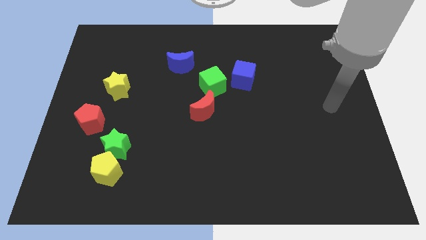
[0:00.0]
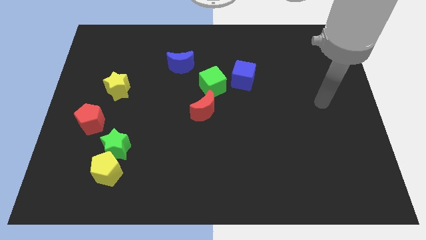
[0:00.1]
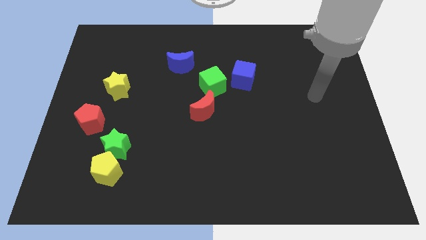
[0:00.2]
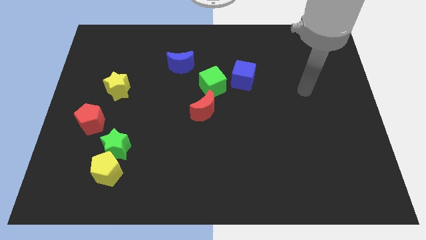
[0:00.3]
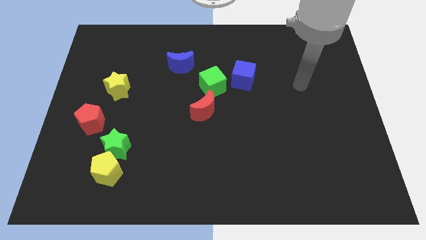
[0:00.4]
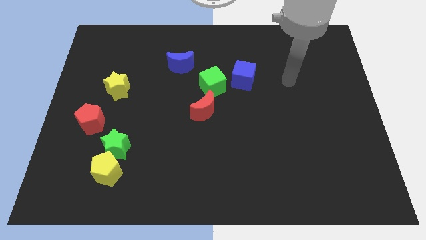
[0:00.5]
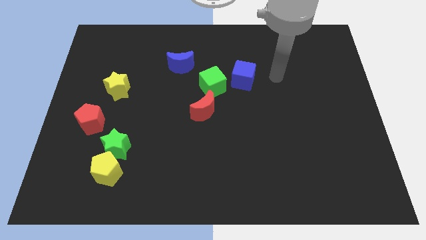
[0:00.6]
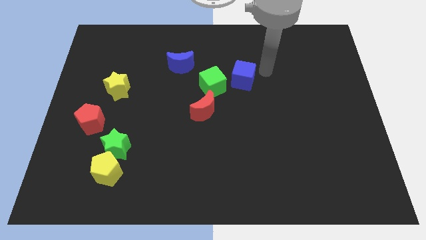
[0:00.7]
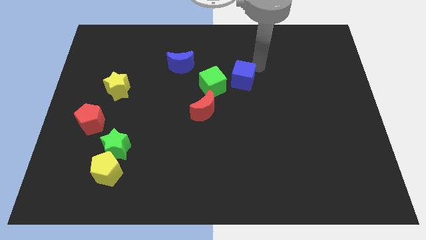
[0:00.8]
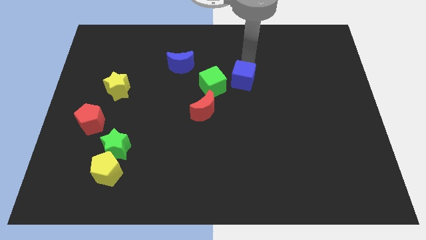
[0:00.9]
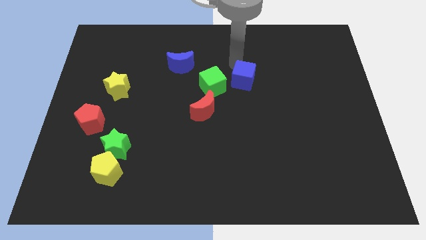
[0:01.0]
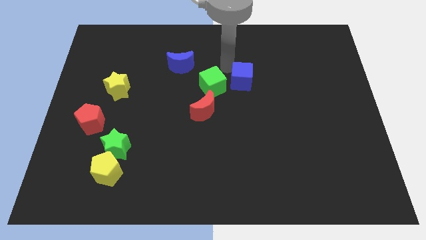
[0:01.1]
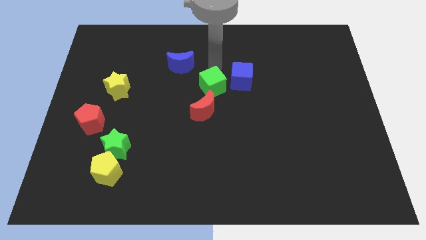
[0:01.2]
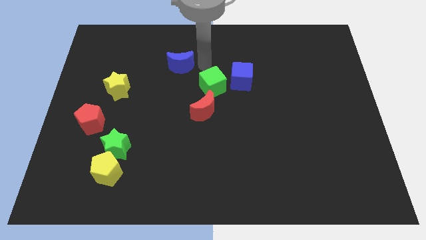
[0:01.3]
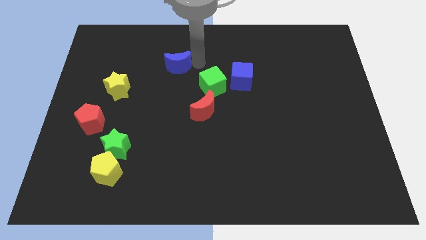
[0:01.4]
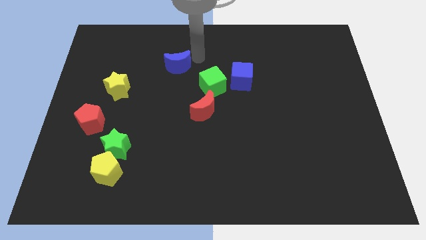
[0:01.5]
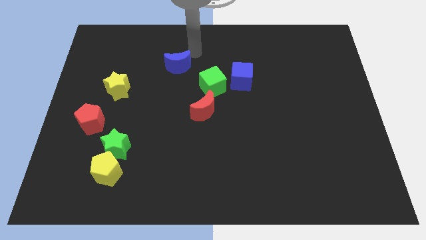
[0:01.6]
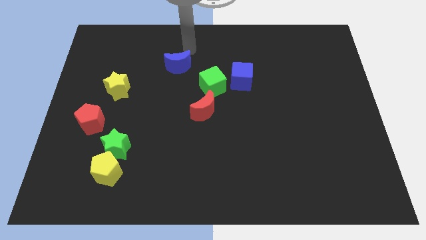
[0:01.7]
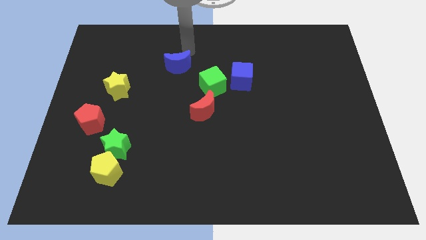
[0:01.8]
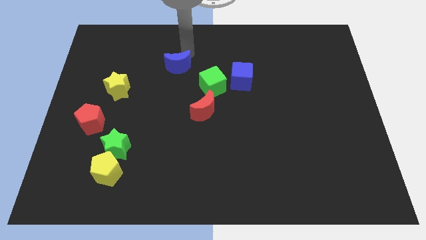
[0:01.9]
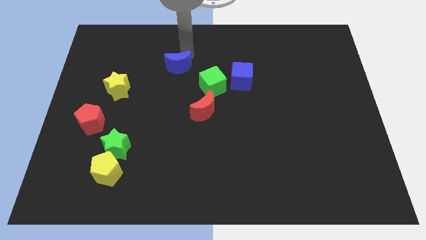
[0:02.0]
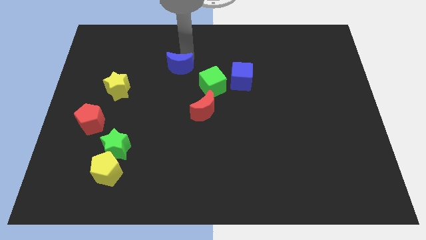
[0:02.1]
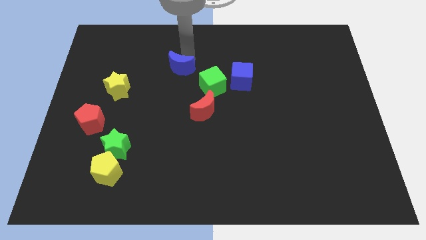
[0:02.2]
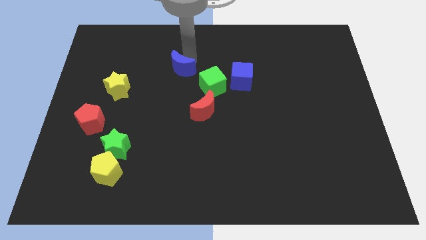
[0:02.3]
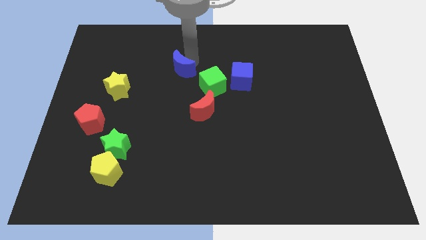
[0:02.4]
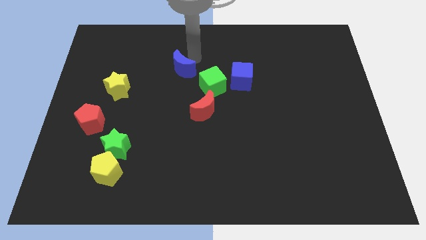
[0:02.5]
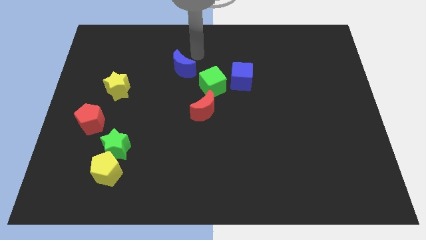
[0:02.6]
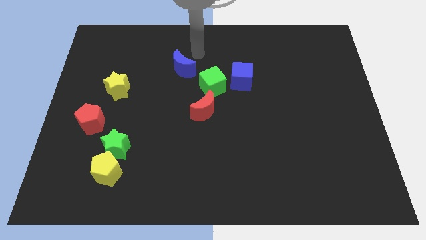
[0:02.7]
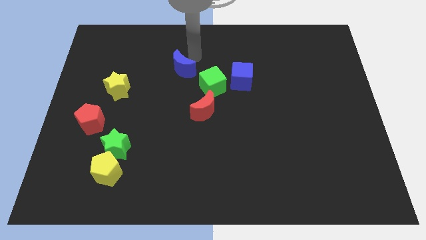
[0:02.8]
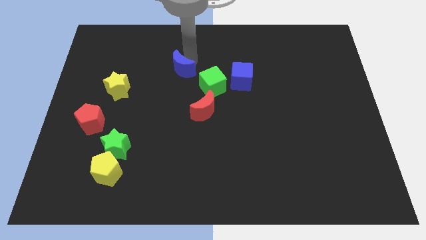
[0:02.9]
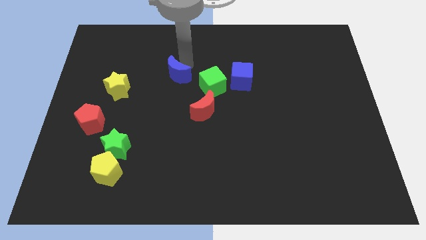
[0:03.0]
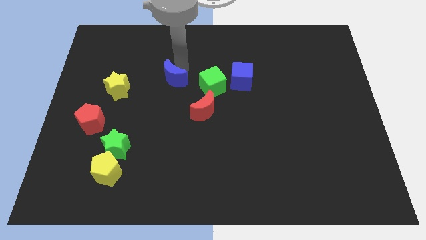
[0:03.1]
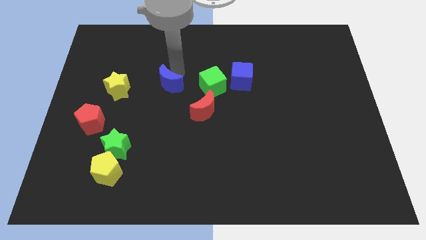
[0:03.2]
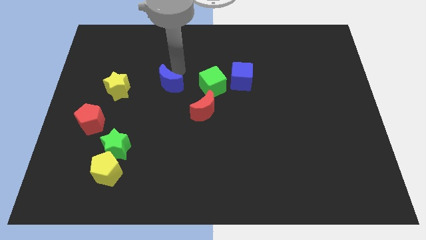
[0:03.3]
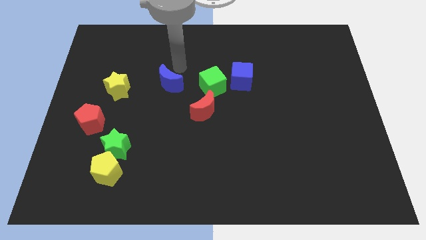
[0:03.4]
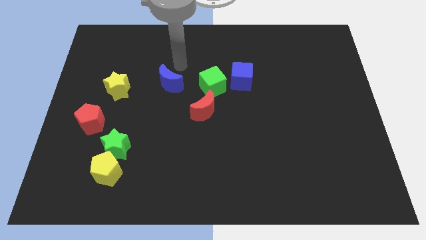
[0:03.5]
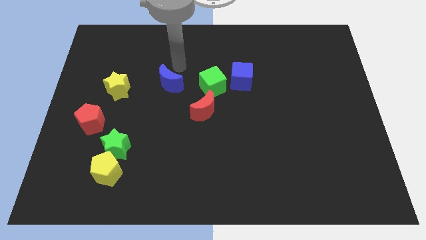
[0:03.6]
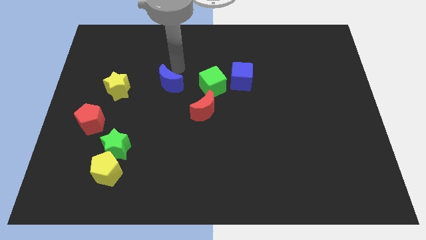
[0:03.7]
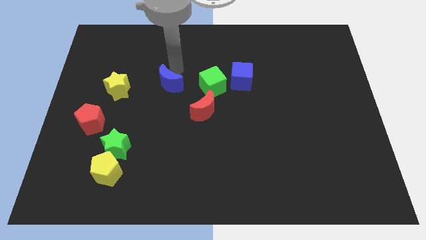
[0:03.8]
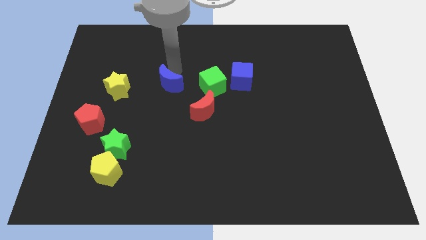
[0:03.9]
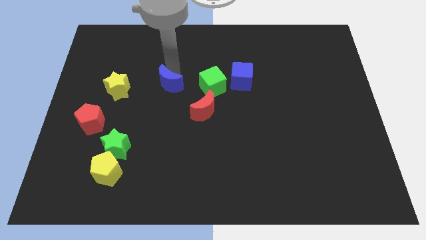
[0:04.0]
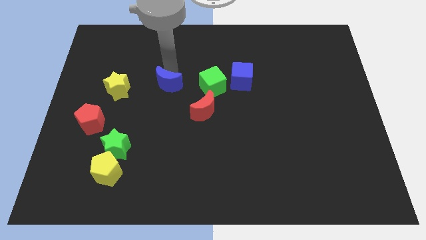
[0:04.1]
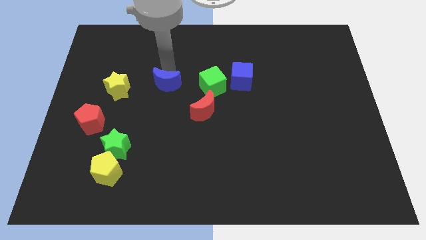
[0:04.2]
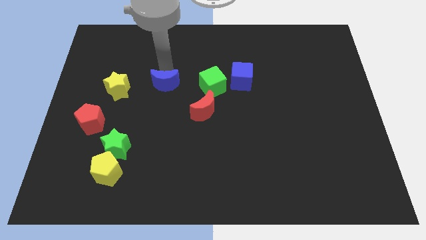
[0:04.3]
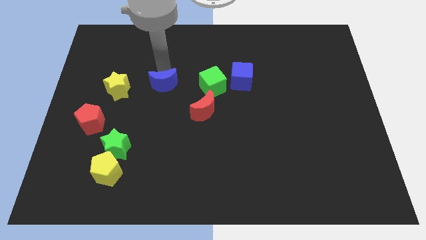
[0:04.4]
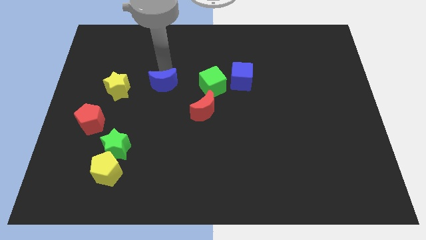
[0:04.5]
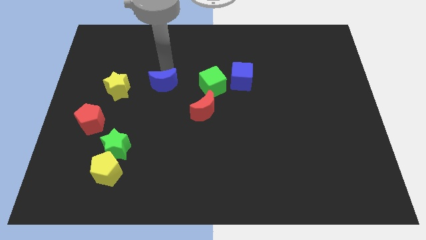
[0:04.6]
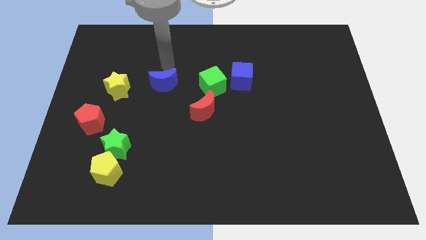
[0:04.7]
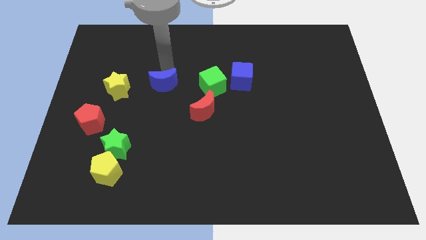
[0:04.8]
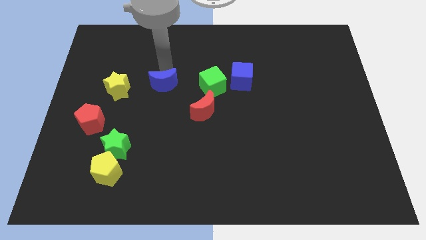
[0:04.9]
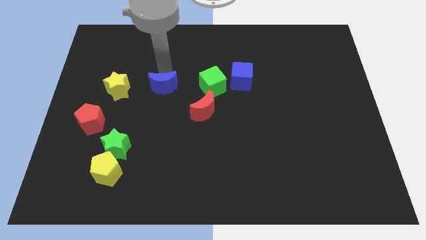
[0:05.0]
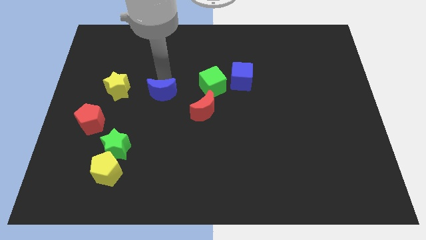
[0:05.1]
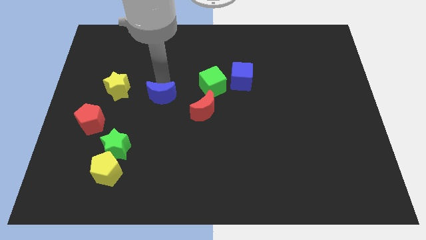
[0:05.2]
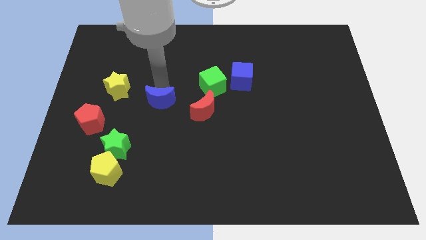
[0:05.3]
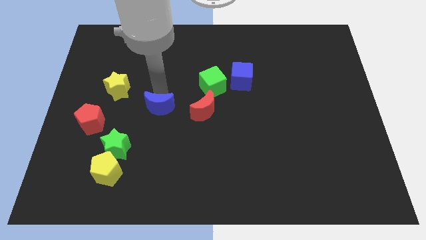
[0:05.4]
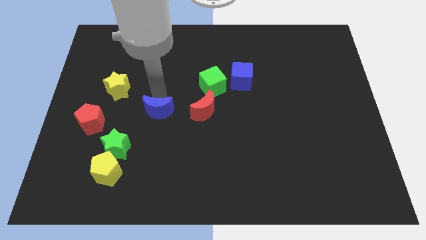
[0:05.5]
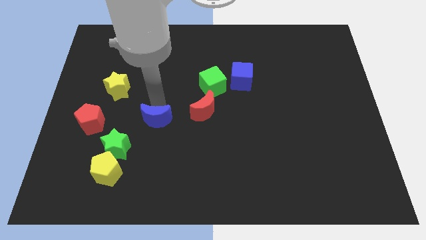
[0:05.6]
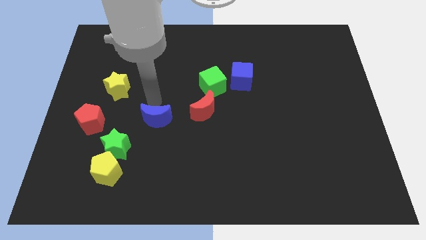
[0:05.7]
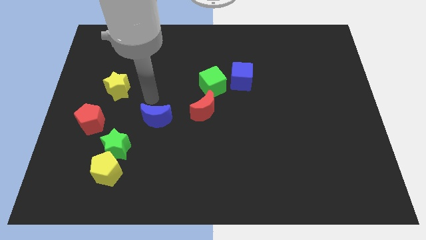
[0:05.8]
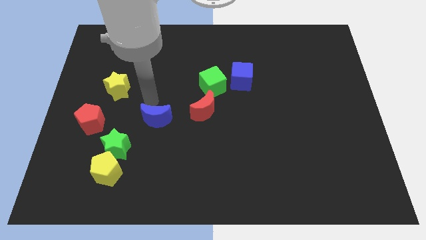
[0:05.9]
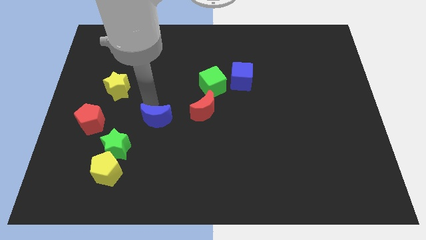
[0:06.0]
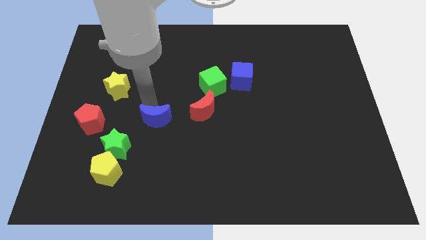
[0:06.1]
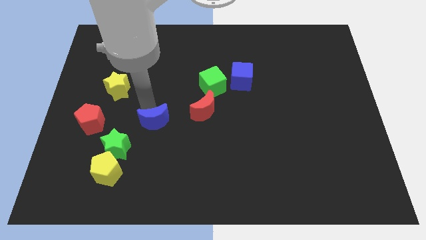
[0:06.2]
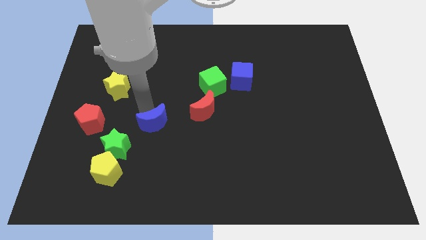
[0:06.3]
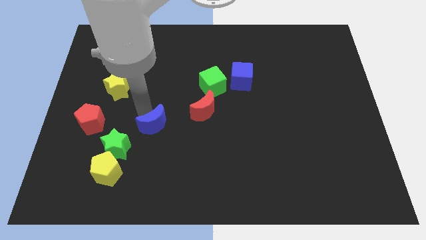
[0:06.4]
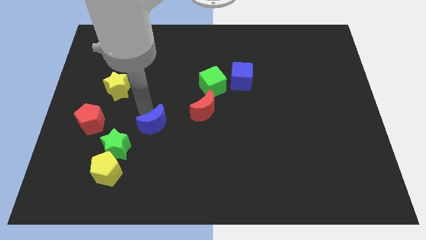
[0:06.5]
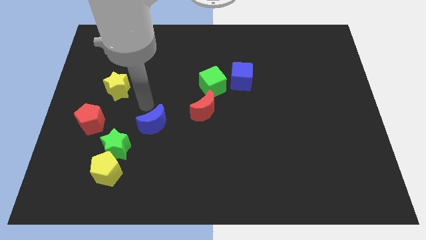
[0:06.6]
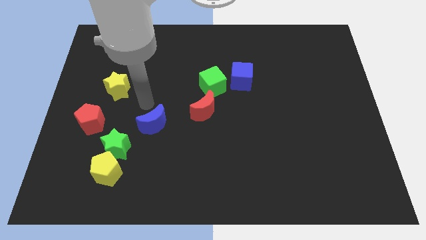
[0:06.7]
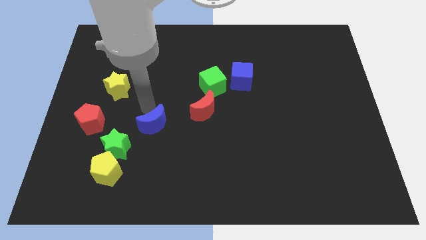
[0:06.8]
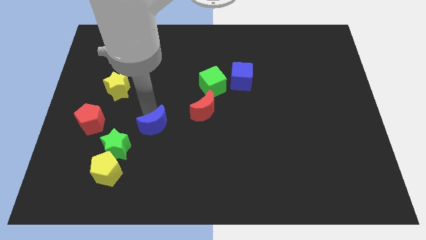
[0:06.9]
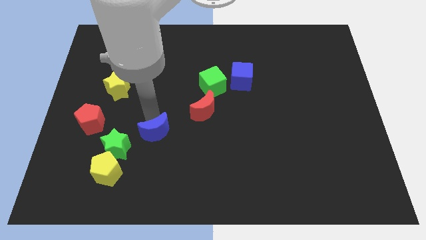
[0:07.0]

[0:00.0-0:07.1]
push the blue moon to the right side of the green star

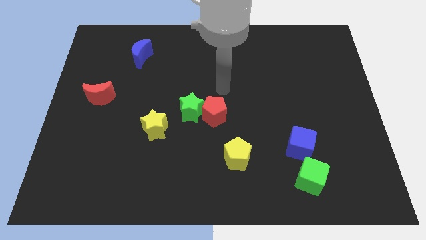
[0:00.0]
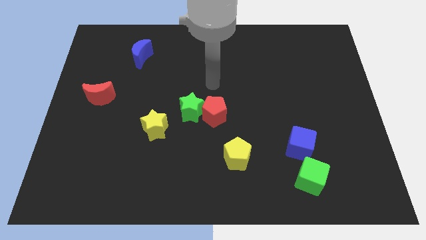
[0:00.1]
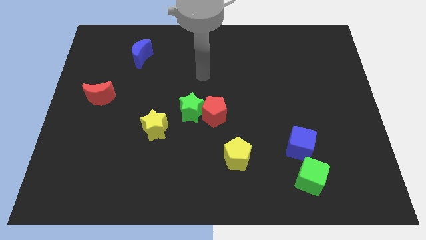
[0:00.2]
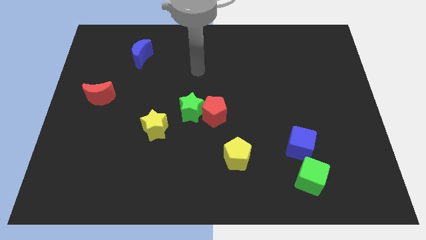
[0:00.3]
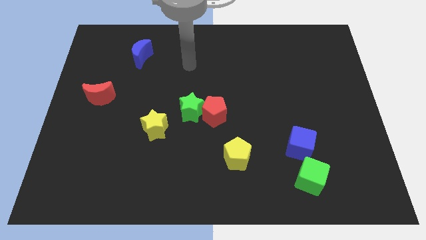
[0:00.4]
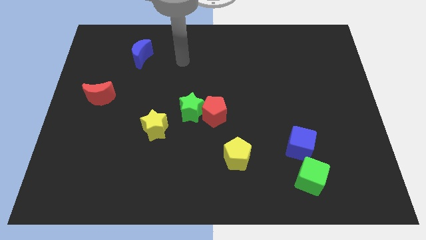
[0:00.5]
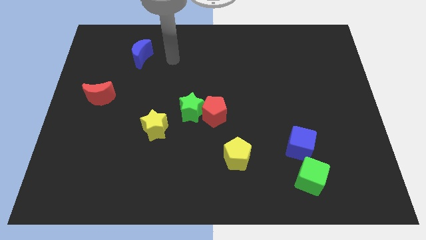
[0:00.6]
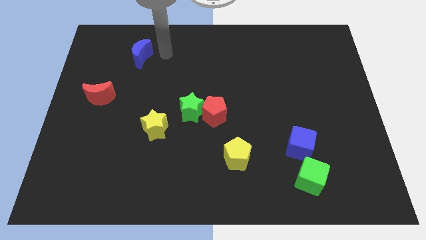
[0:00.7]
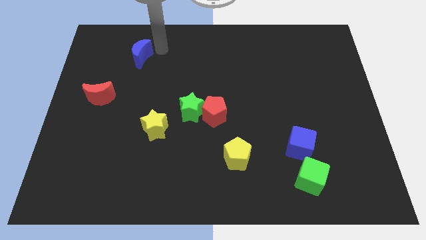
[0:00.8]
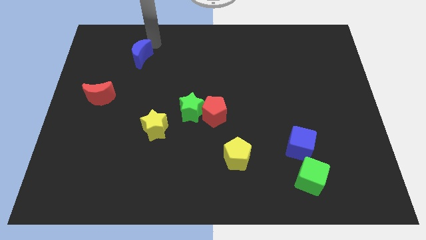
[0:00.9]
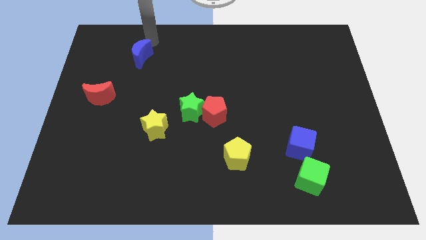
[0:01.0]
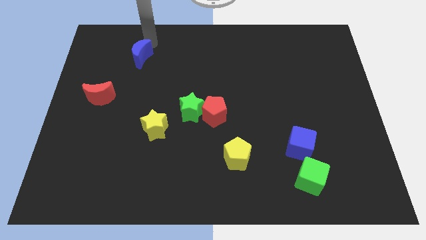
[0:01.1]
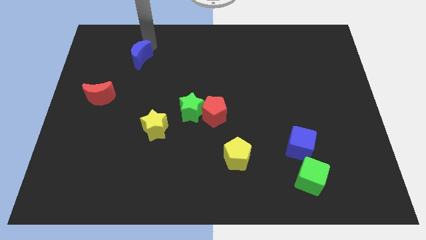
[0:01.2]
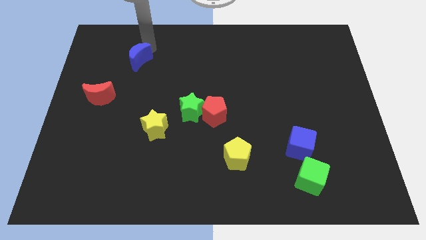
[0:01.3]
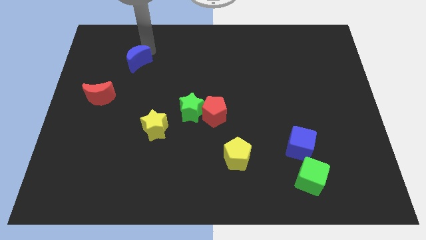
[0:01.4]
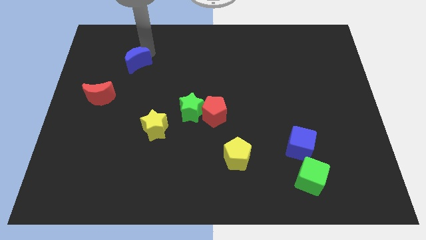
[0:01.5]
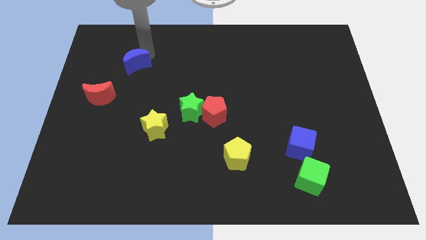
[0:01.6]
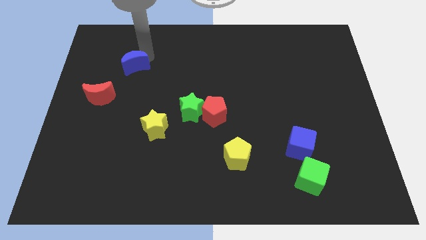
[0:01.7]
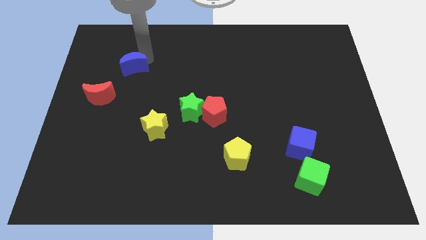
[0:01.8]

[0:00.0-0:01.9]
push the blue moon to the top right of the red moon
